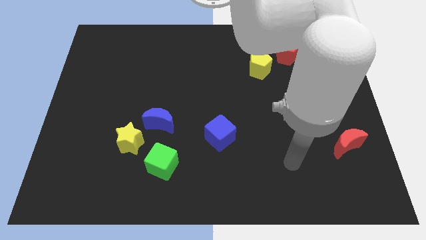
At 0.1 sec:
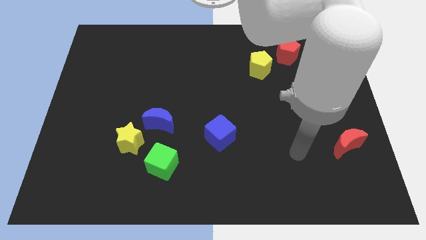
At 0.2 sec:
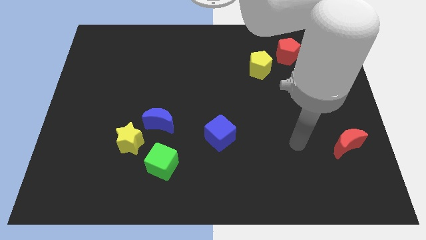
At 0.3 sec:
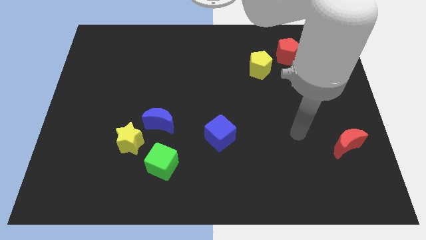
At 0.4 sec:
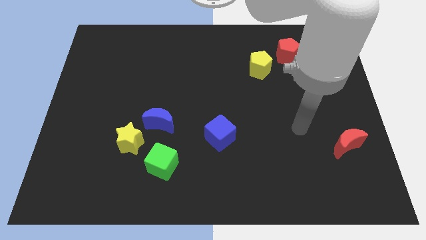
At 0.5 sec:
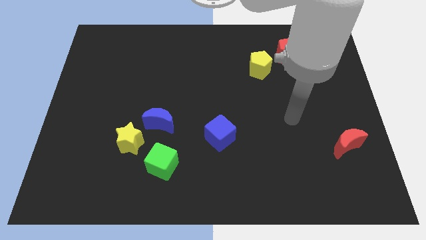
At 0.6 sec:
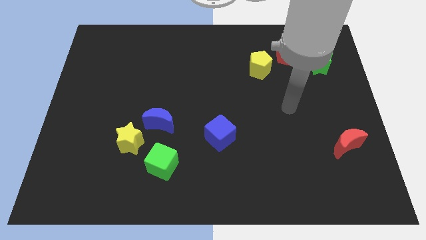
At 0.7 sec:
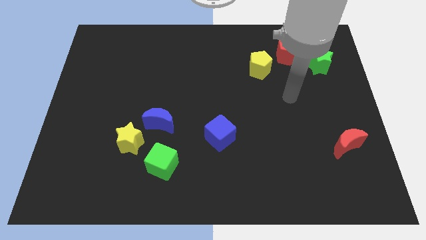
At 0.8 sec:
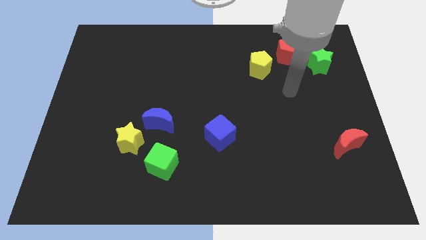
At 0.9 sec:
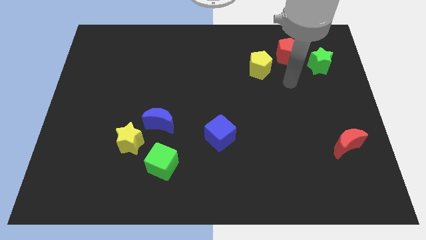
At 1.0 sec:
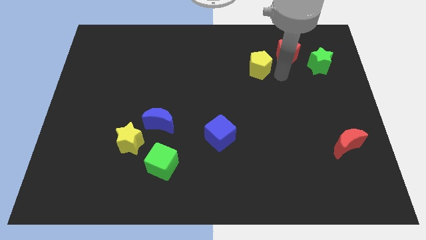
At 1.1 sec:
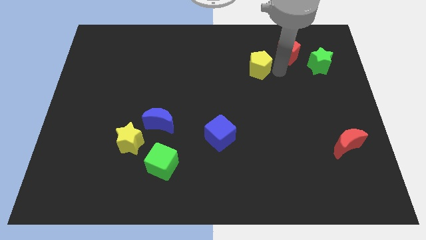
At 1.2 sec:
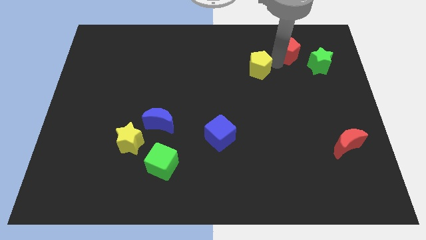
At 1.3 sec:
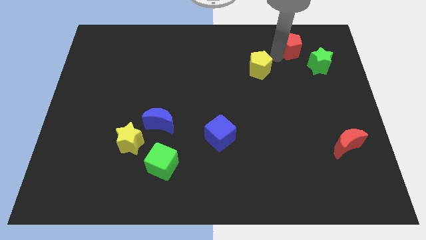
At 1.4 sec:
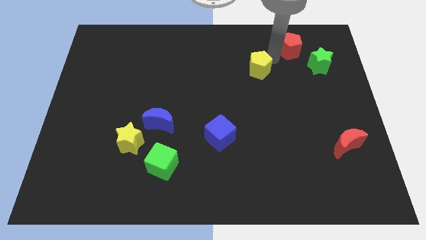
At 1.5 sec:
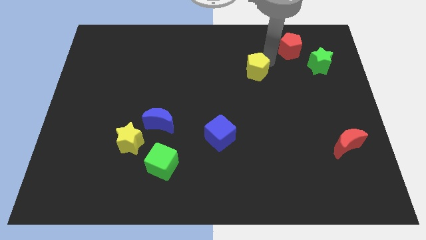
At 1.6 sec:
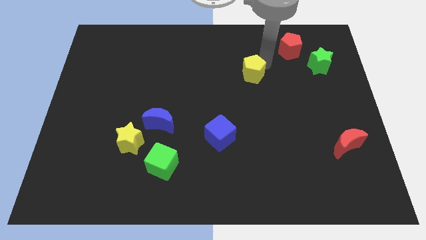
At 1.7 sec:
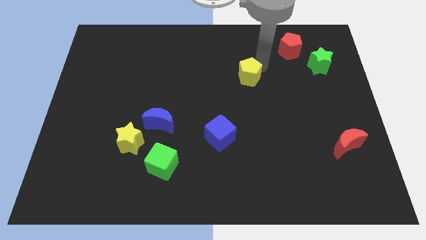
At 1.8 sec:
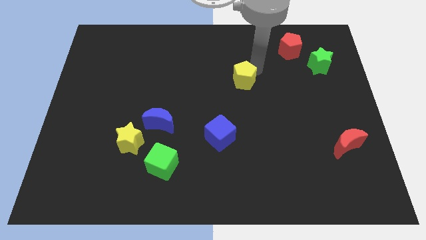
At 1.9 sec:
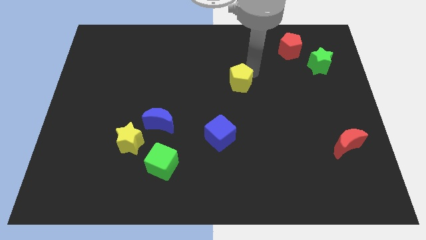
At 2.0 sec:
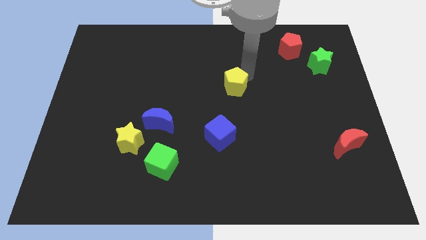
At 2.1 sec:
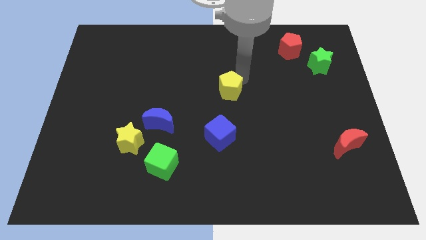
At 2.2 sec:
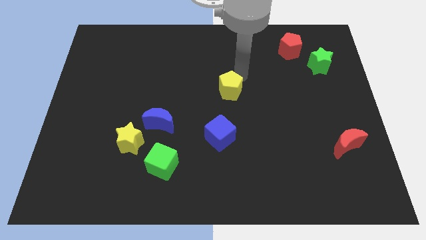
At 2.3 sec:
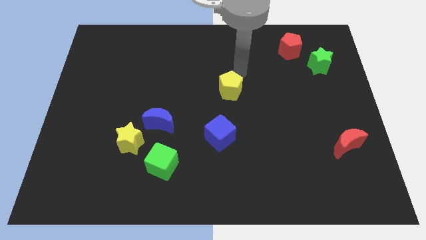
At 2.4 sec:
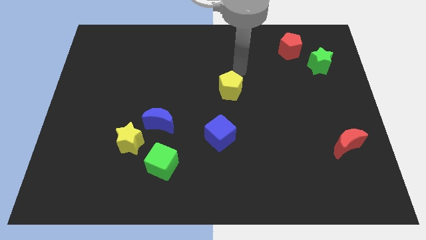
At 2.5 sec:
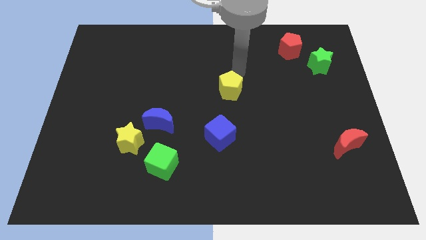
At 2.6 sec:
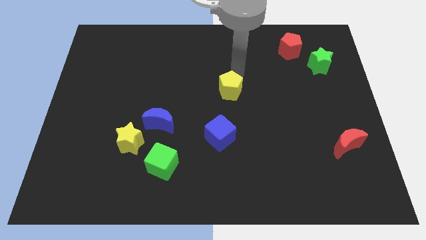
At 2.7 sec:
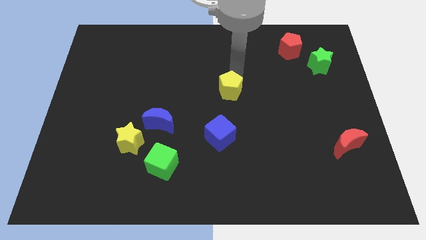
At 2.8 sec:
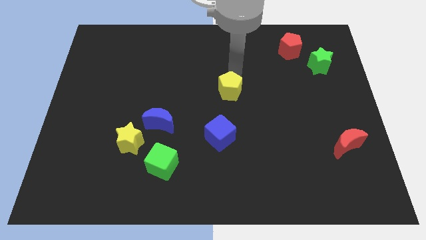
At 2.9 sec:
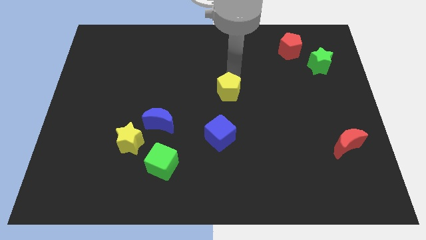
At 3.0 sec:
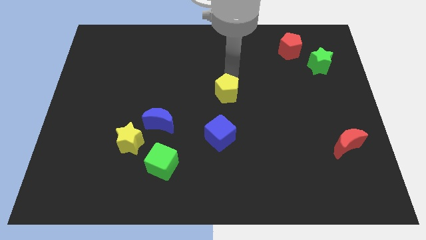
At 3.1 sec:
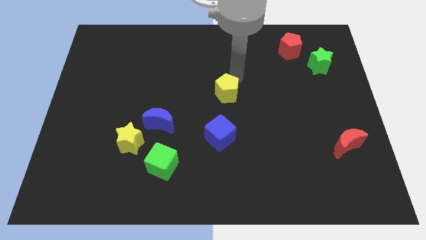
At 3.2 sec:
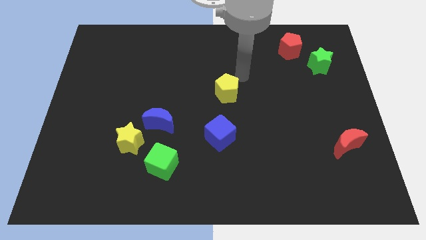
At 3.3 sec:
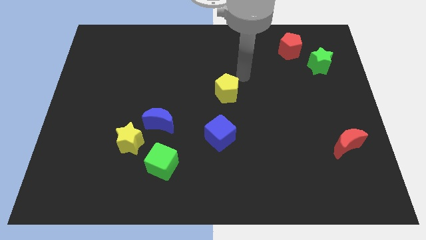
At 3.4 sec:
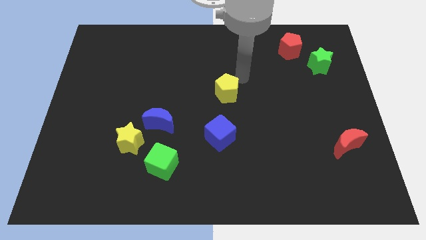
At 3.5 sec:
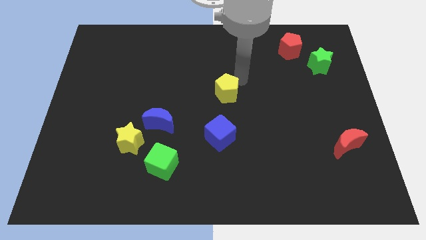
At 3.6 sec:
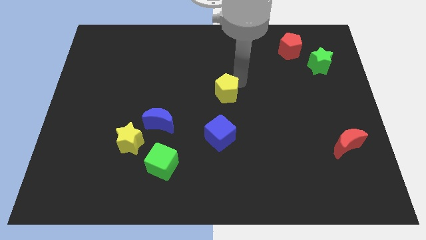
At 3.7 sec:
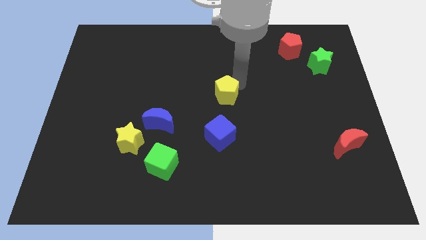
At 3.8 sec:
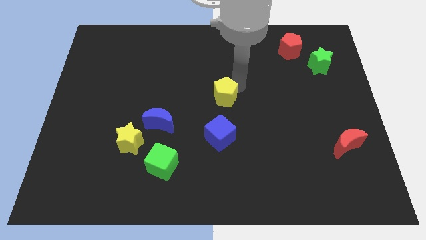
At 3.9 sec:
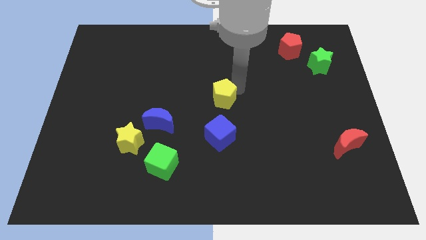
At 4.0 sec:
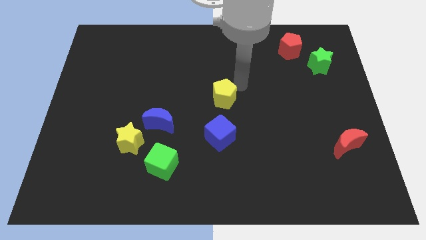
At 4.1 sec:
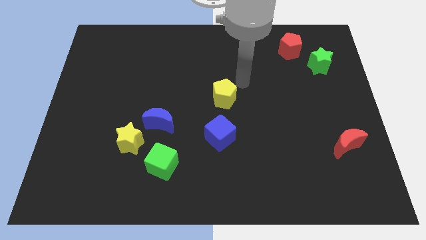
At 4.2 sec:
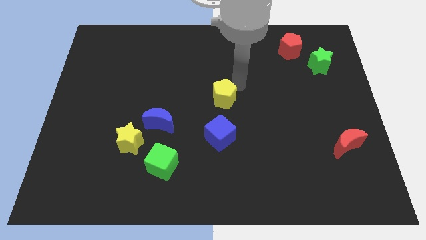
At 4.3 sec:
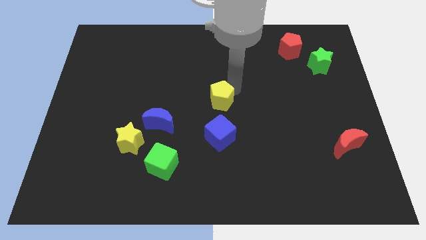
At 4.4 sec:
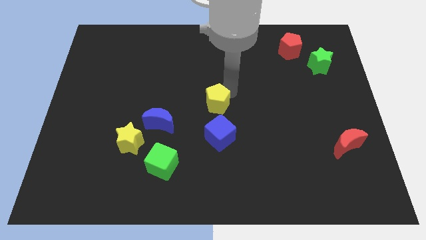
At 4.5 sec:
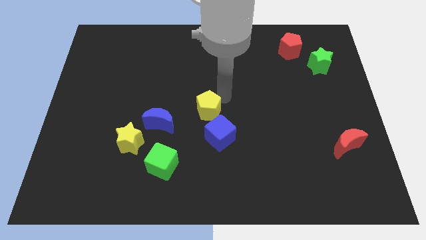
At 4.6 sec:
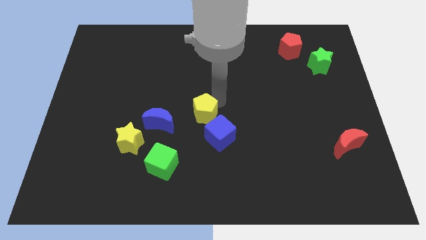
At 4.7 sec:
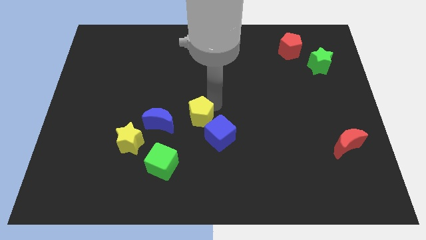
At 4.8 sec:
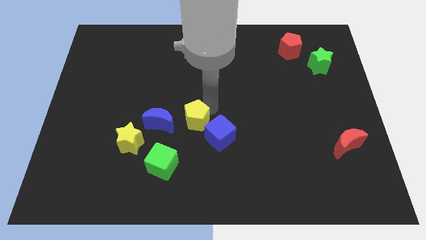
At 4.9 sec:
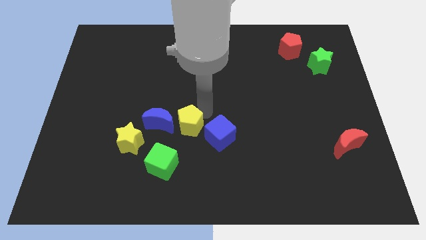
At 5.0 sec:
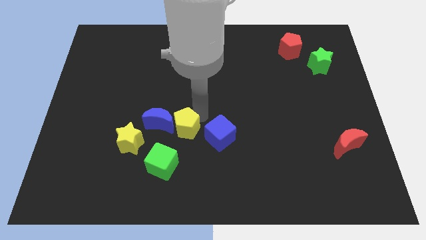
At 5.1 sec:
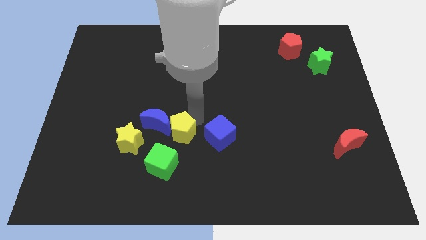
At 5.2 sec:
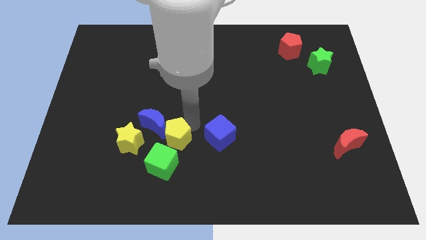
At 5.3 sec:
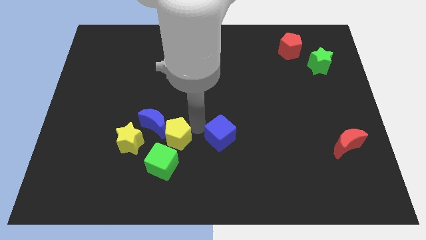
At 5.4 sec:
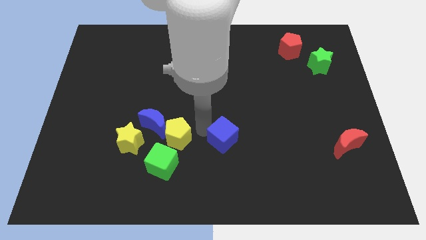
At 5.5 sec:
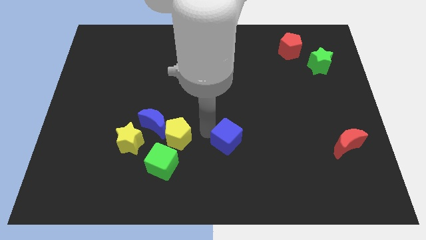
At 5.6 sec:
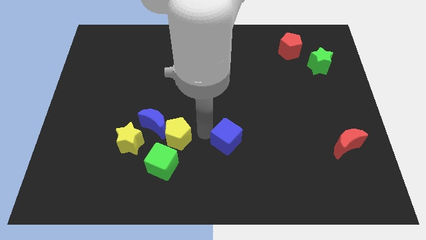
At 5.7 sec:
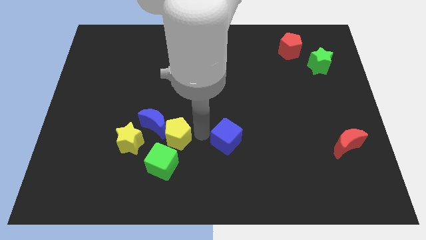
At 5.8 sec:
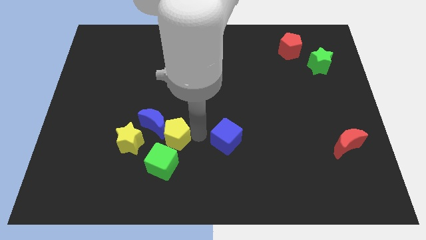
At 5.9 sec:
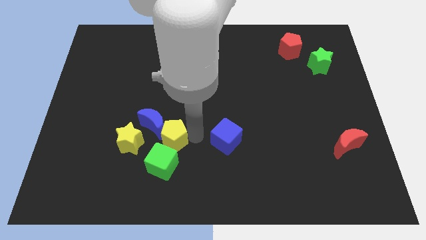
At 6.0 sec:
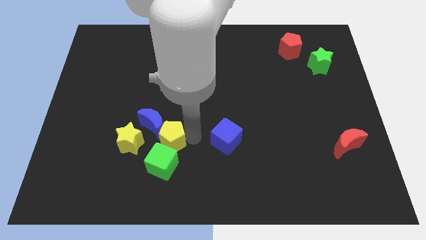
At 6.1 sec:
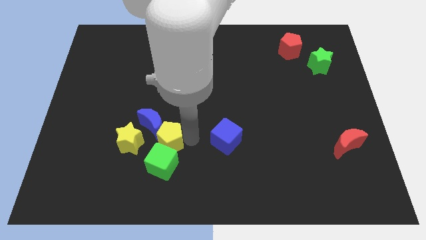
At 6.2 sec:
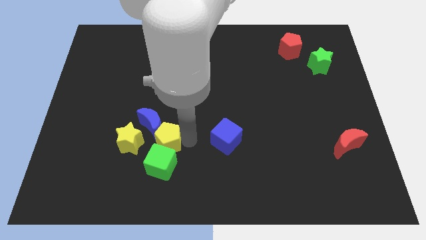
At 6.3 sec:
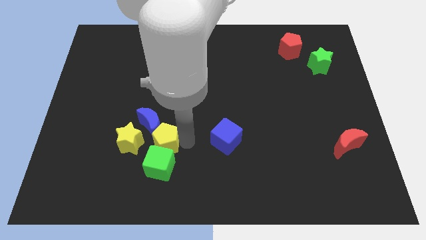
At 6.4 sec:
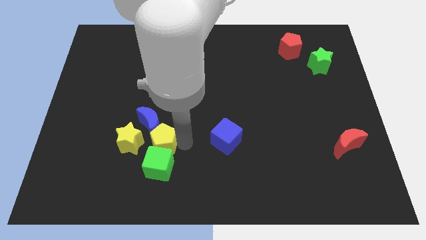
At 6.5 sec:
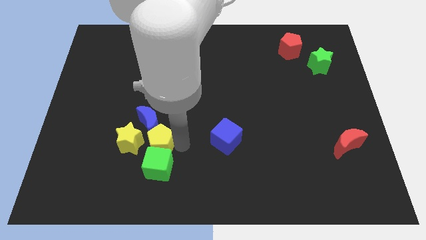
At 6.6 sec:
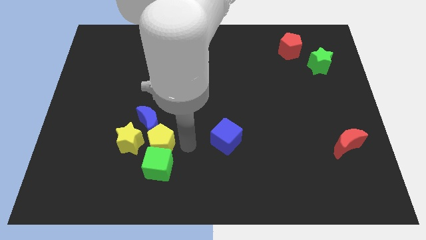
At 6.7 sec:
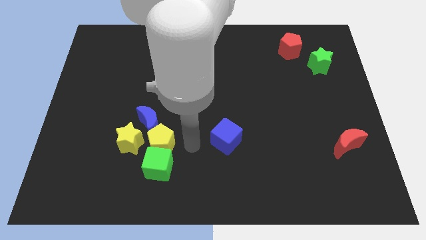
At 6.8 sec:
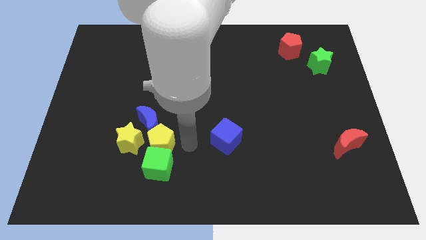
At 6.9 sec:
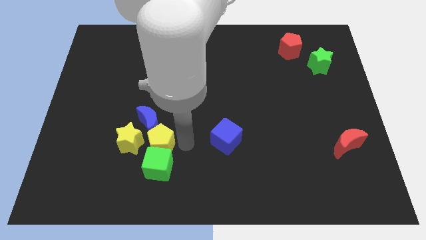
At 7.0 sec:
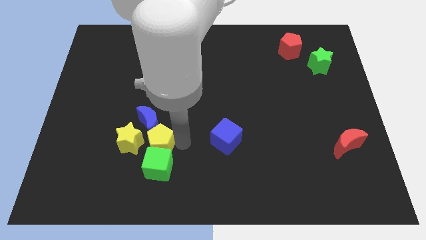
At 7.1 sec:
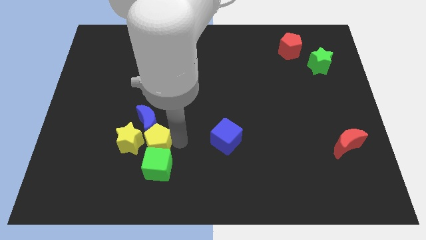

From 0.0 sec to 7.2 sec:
slide the yellow pentagon towards the yellow star
